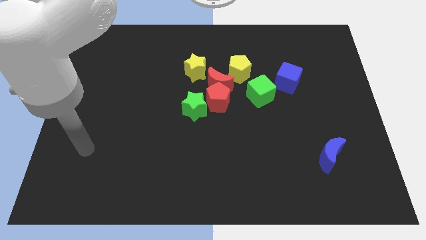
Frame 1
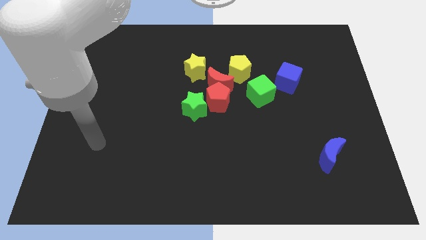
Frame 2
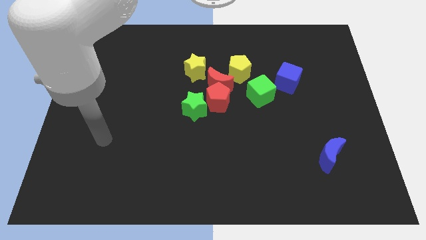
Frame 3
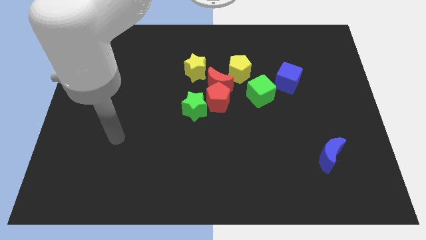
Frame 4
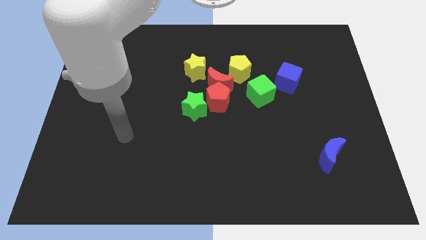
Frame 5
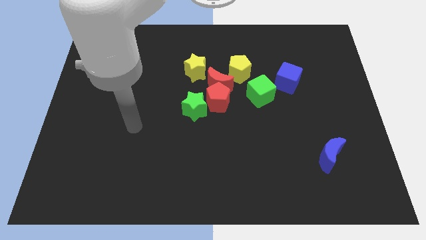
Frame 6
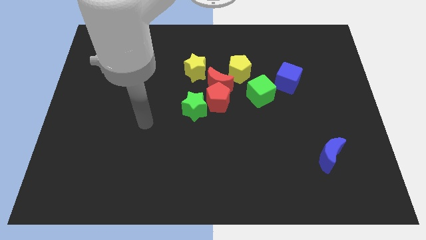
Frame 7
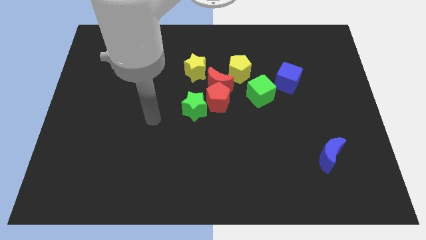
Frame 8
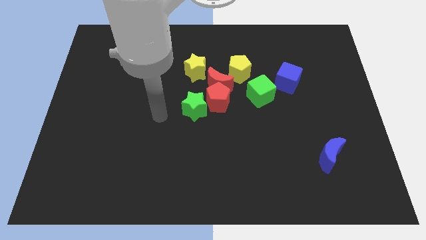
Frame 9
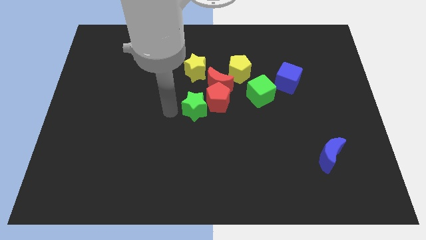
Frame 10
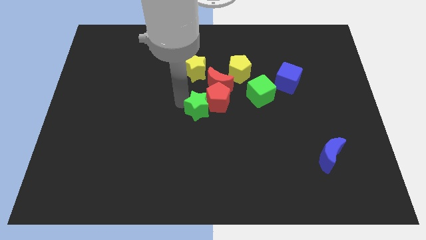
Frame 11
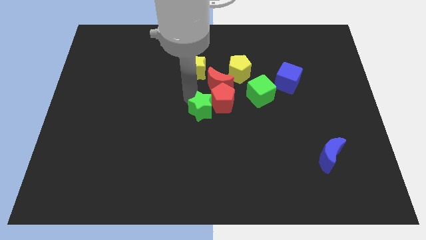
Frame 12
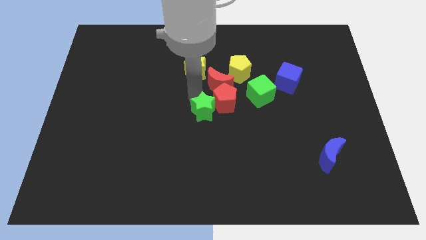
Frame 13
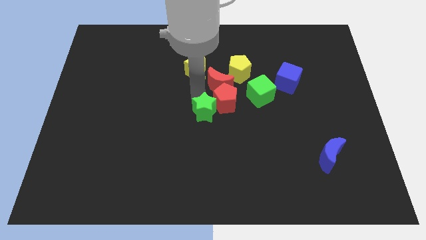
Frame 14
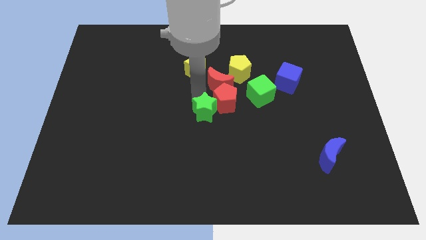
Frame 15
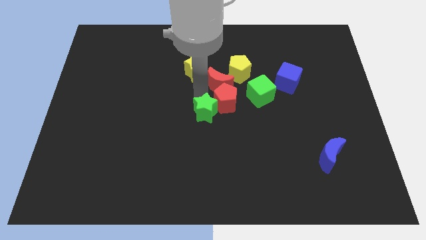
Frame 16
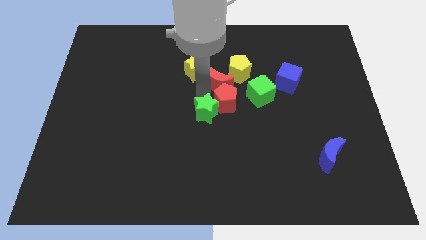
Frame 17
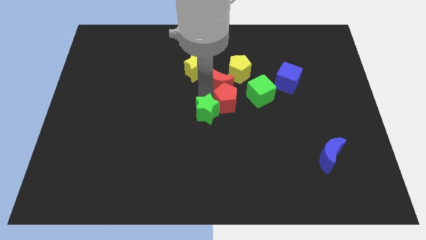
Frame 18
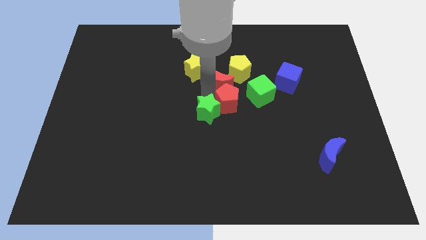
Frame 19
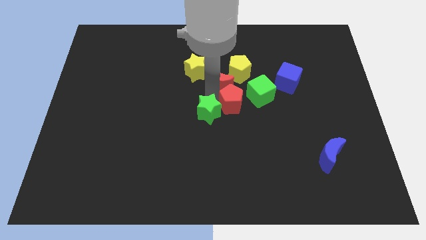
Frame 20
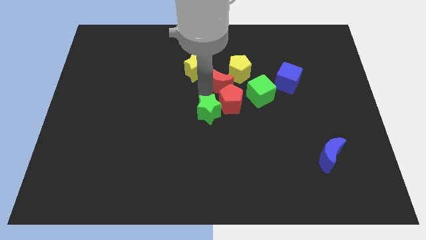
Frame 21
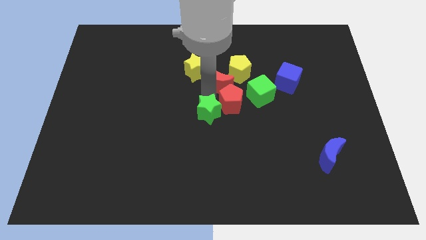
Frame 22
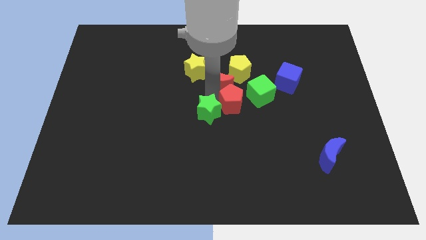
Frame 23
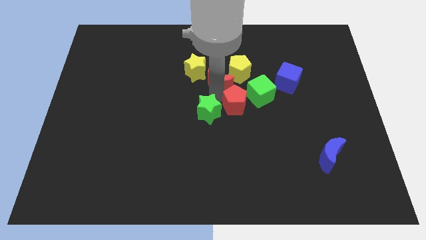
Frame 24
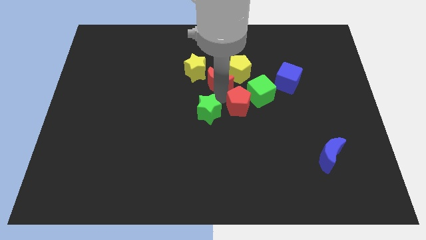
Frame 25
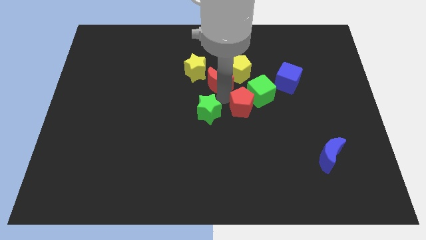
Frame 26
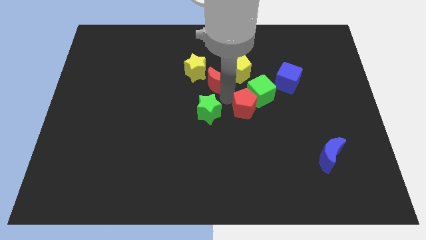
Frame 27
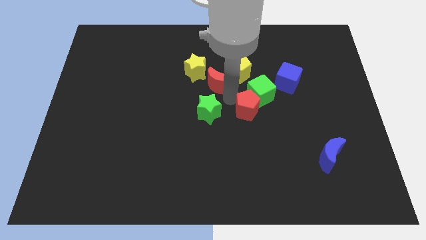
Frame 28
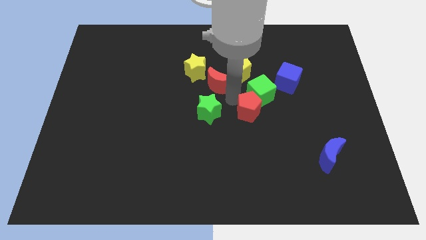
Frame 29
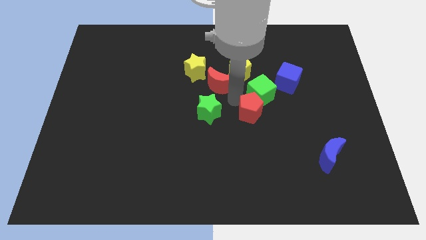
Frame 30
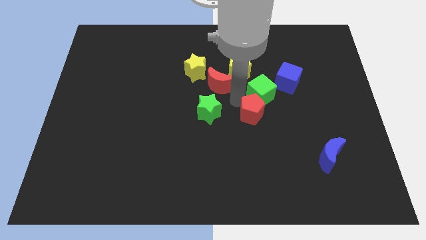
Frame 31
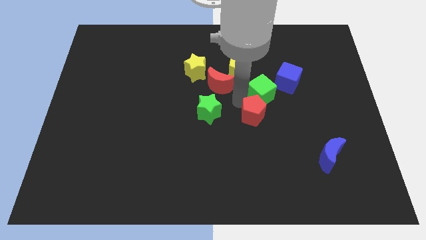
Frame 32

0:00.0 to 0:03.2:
move the red pentagon away from the red moon and green star

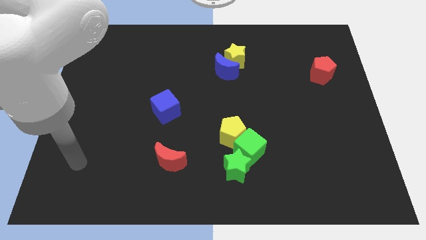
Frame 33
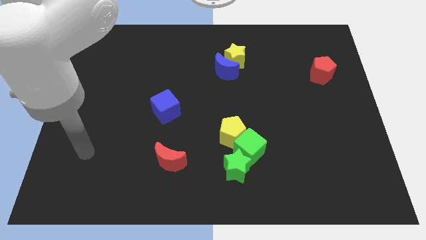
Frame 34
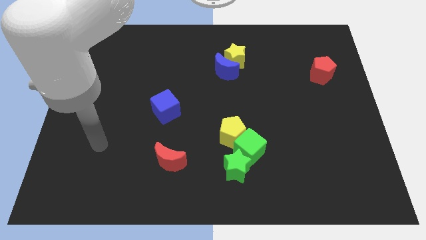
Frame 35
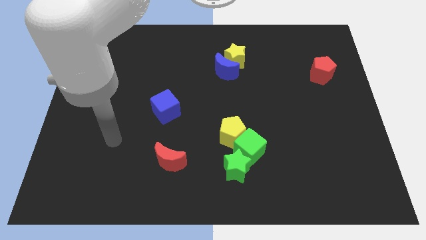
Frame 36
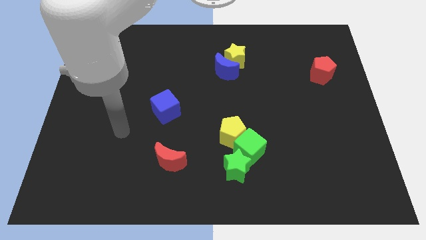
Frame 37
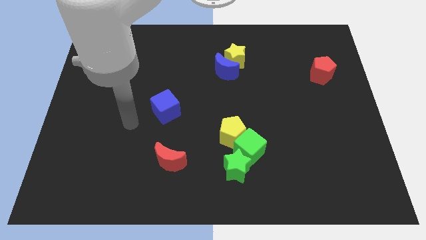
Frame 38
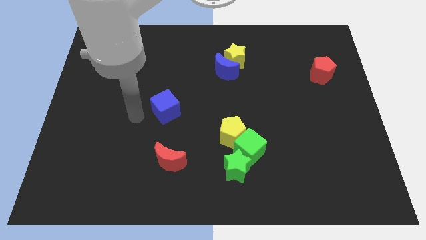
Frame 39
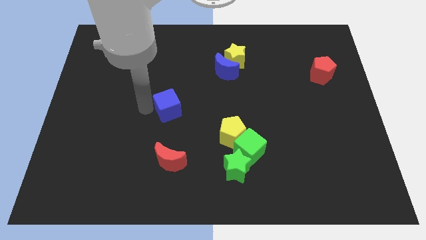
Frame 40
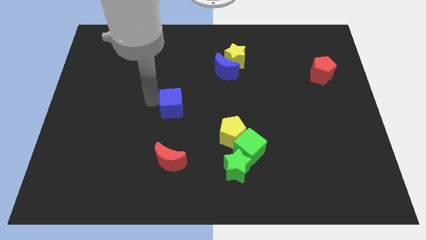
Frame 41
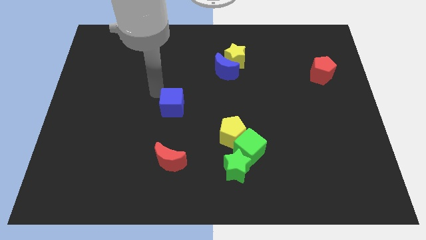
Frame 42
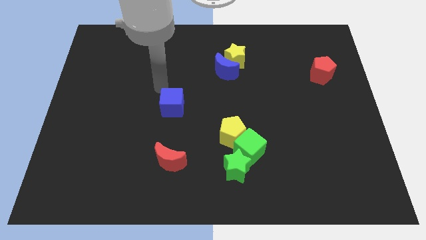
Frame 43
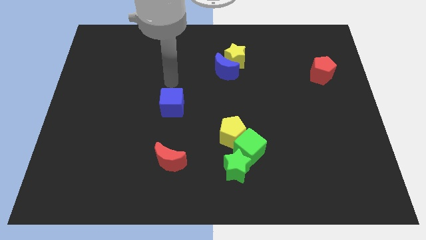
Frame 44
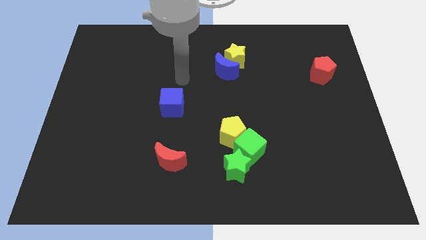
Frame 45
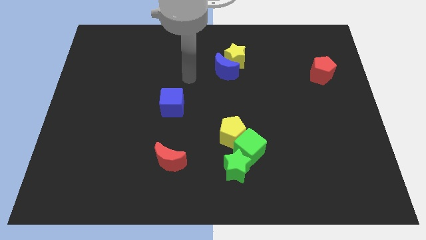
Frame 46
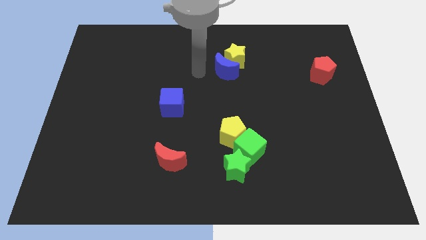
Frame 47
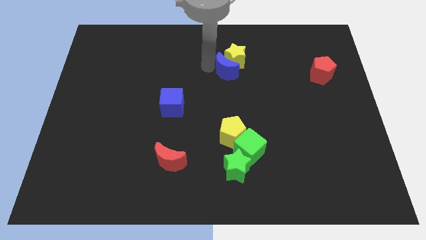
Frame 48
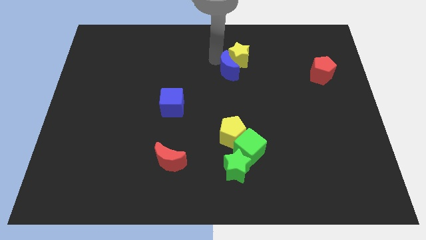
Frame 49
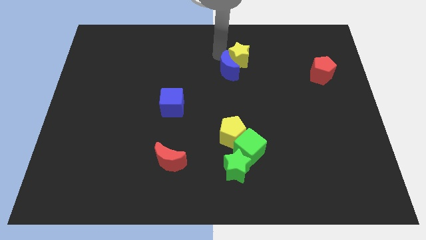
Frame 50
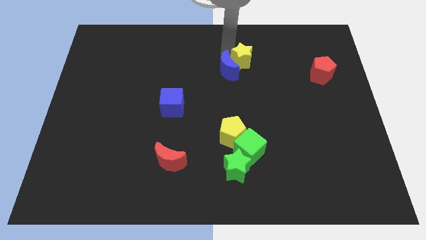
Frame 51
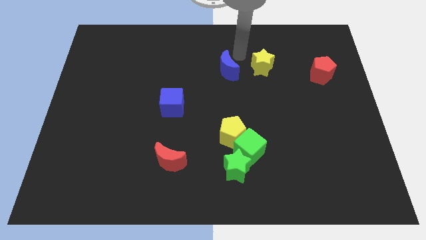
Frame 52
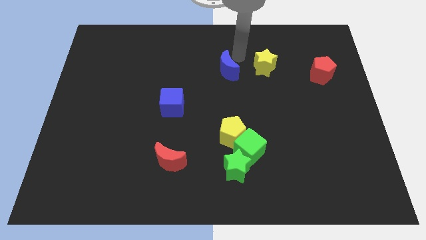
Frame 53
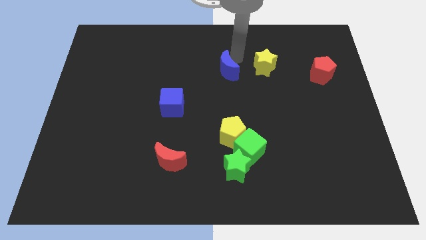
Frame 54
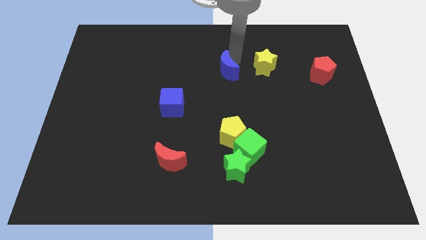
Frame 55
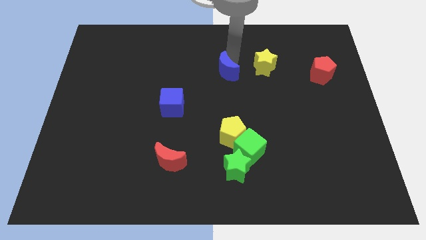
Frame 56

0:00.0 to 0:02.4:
pull the blue moon apart from the yellow star

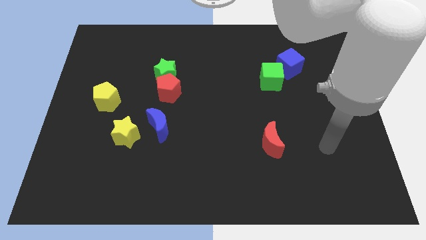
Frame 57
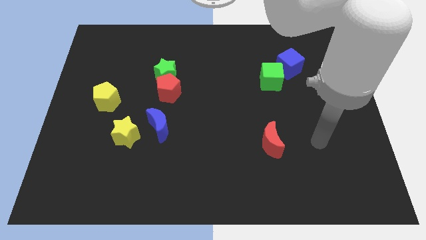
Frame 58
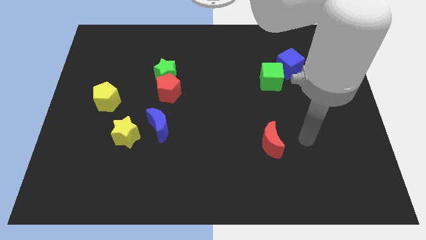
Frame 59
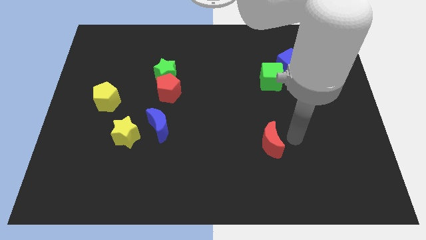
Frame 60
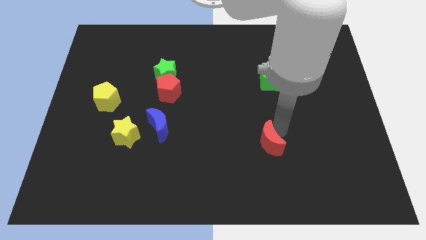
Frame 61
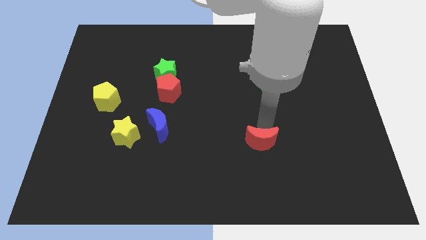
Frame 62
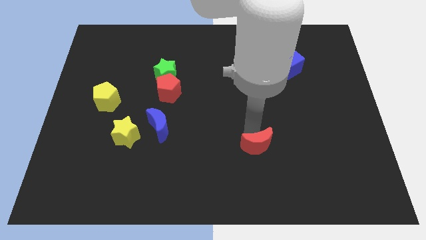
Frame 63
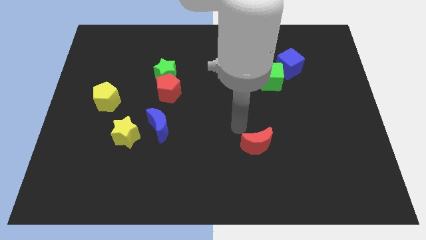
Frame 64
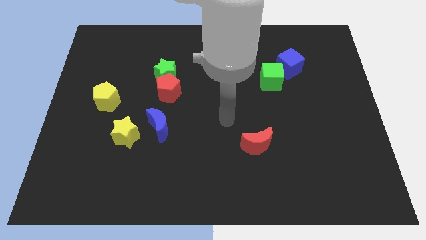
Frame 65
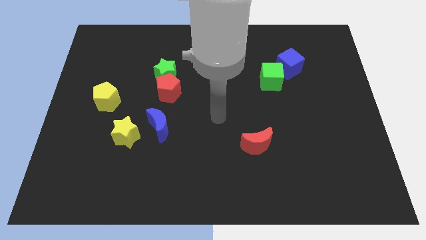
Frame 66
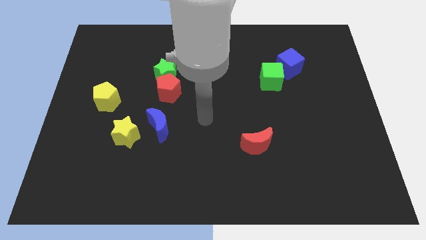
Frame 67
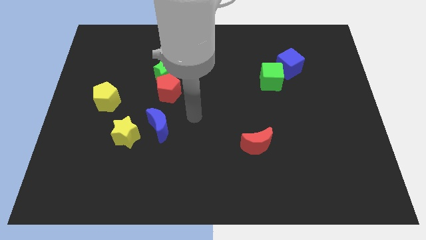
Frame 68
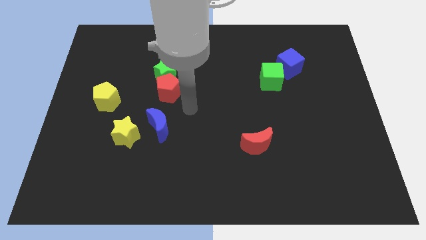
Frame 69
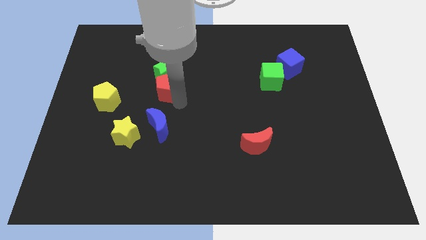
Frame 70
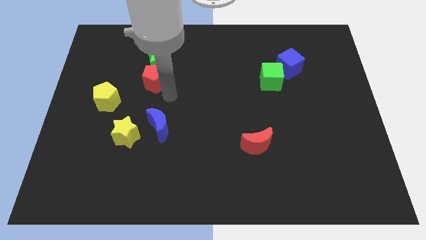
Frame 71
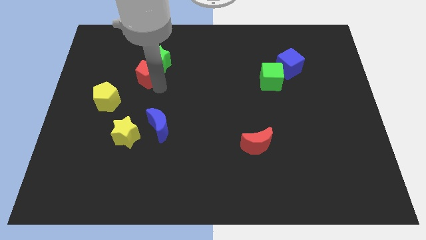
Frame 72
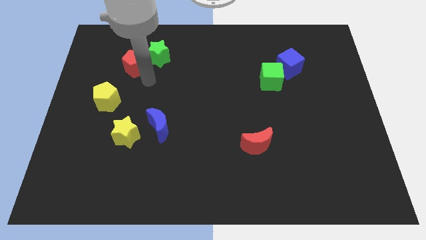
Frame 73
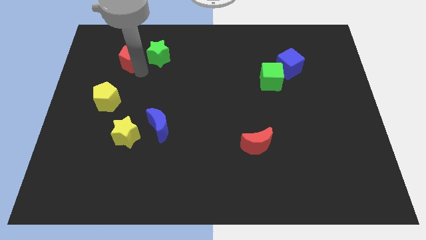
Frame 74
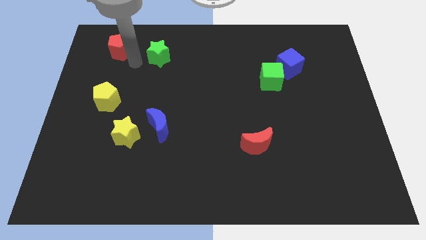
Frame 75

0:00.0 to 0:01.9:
move the green star away from the red pentagon

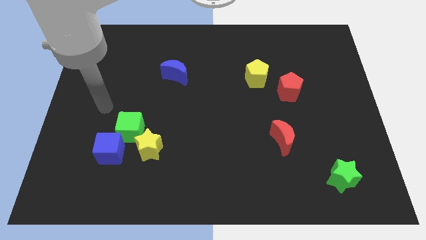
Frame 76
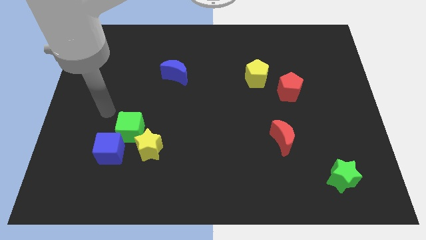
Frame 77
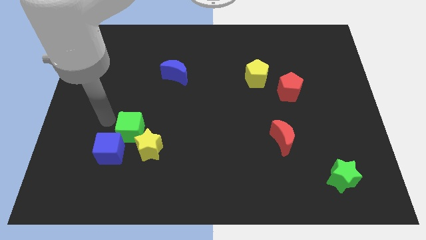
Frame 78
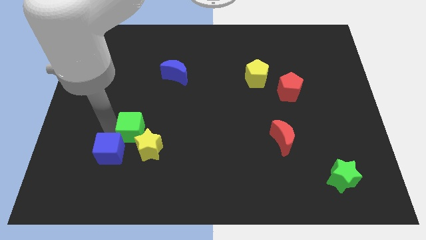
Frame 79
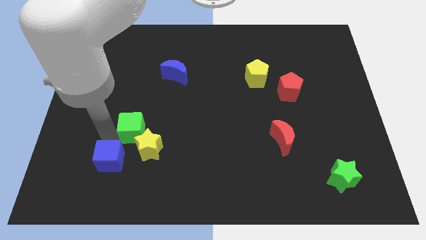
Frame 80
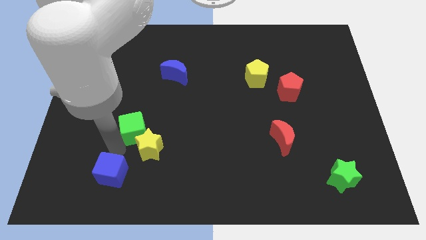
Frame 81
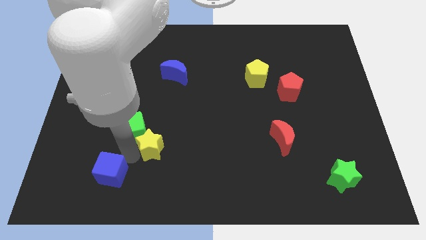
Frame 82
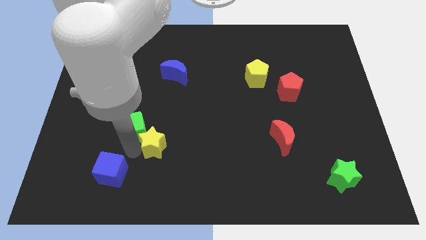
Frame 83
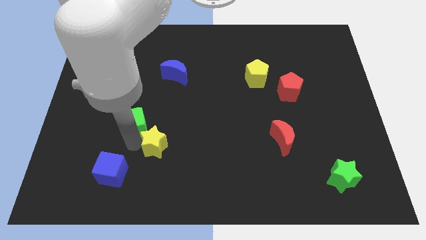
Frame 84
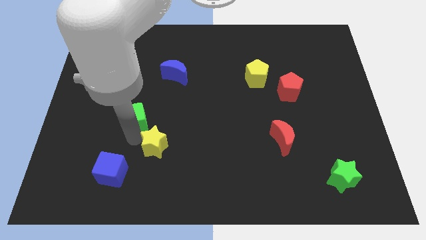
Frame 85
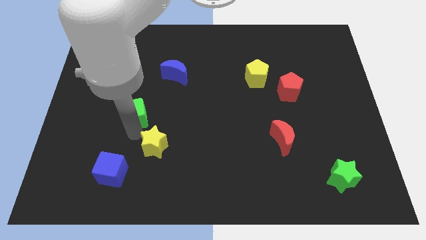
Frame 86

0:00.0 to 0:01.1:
pull the green cube apart from the blue cube and yellow star

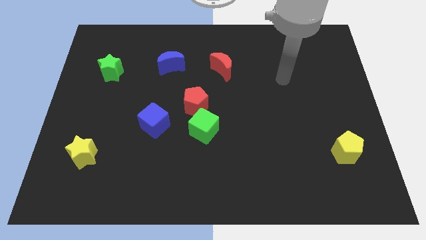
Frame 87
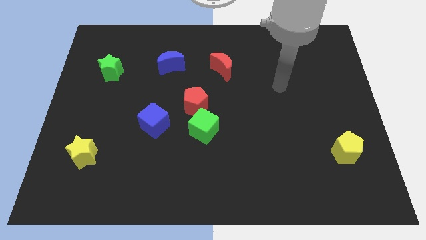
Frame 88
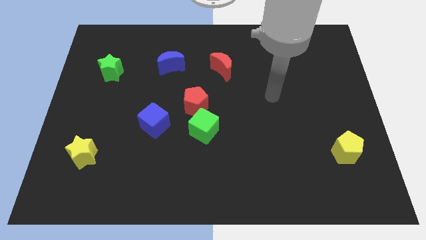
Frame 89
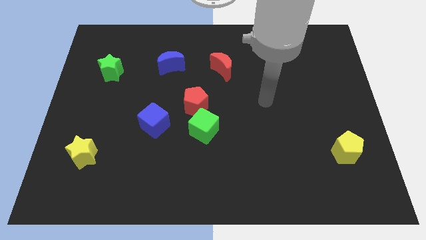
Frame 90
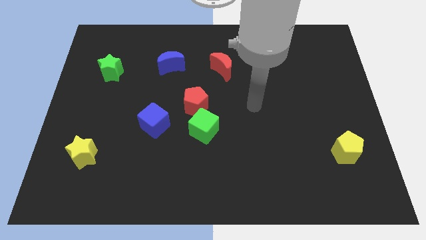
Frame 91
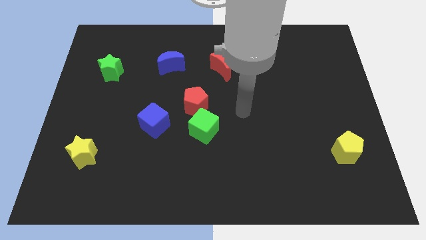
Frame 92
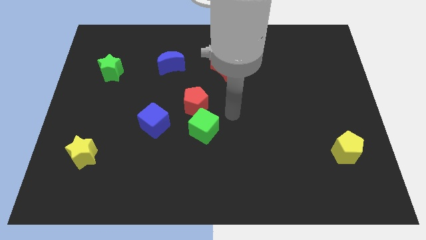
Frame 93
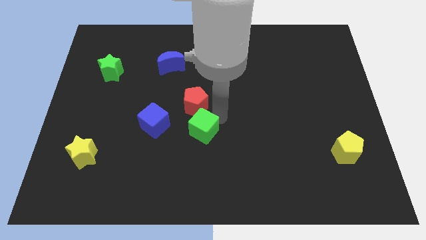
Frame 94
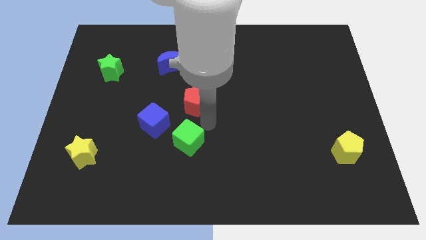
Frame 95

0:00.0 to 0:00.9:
pull the red pentagon apart from the green cube

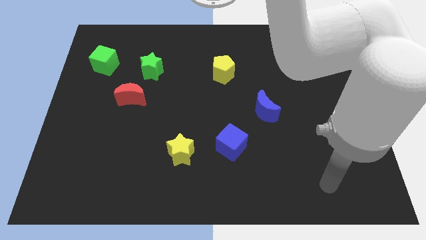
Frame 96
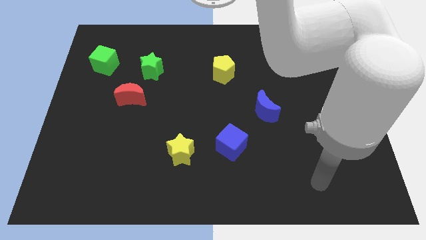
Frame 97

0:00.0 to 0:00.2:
pull the red moon apart from the green star
